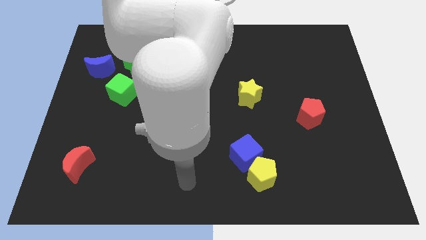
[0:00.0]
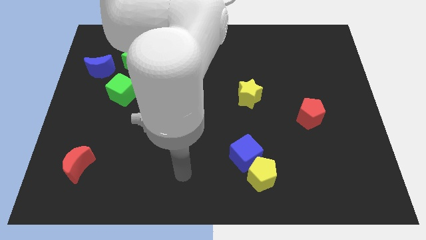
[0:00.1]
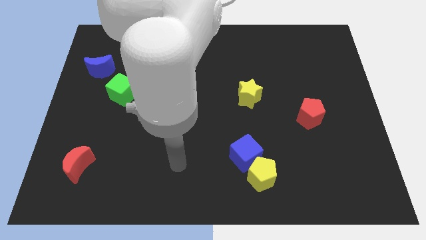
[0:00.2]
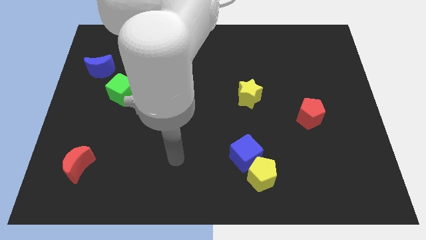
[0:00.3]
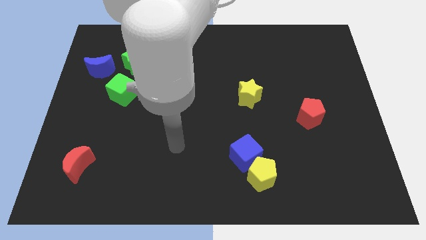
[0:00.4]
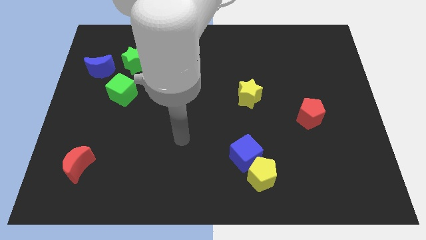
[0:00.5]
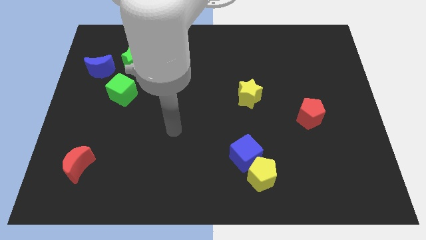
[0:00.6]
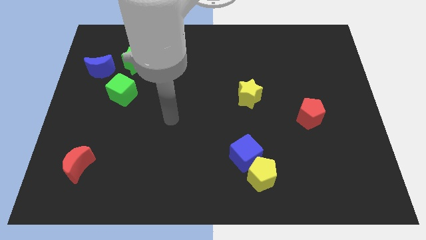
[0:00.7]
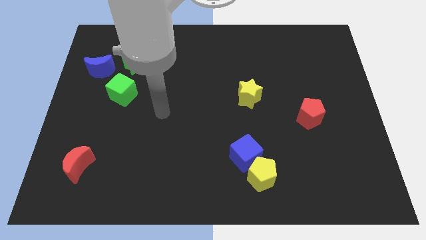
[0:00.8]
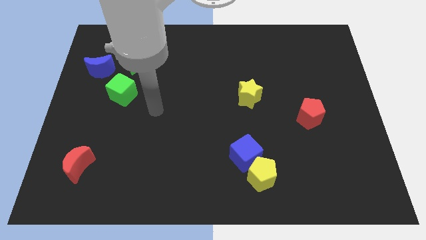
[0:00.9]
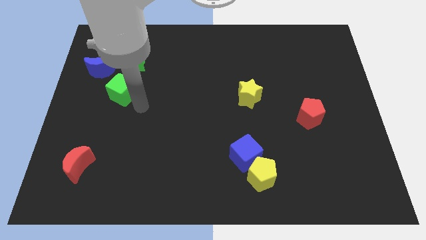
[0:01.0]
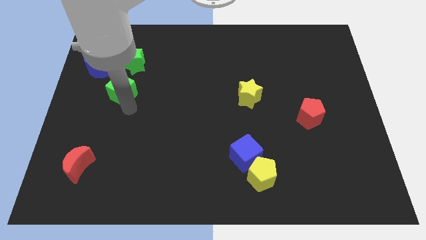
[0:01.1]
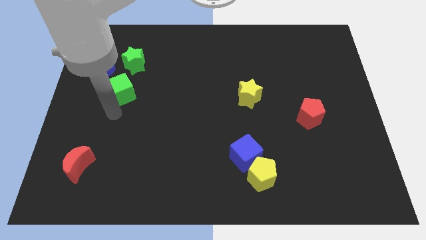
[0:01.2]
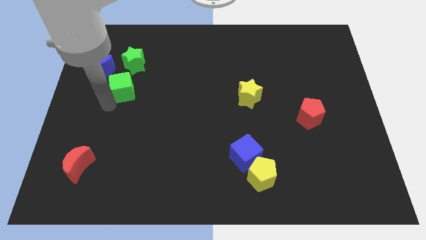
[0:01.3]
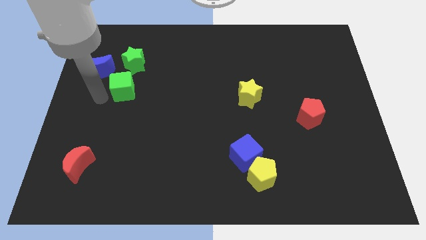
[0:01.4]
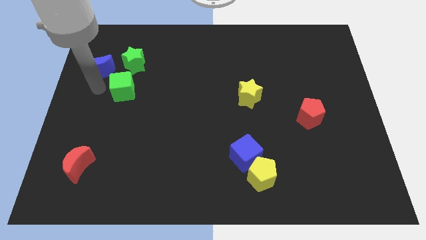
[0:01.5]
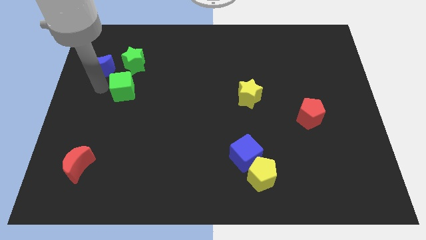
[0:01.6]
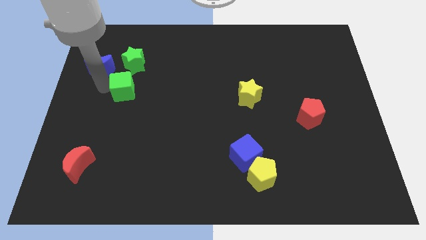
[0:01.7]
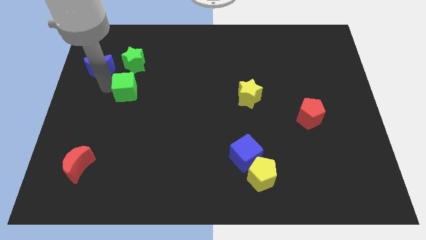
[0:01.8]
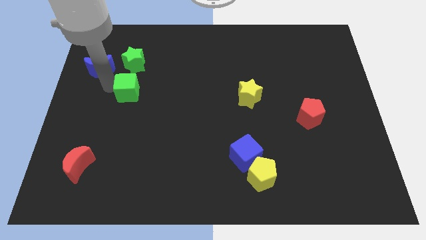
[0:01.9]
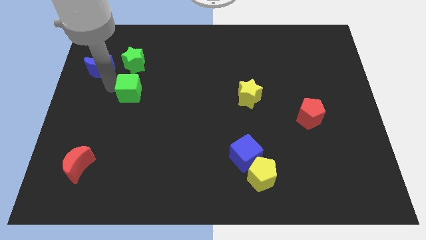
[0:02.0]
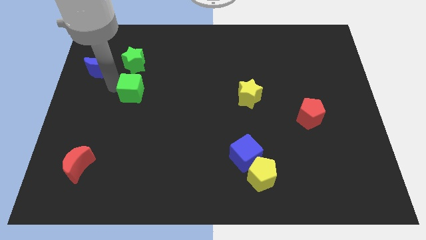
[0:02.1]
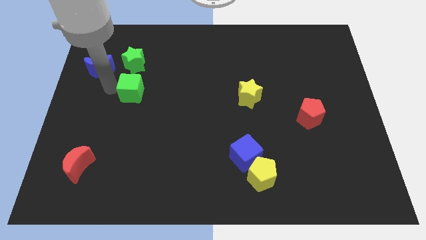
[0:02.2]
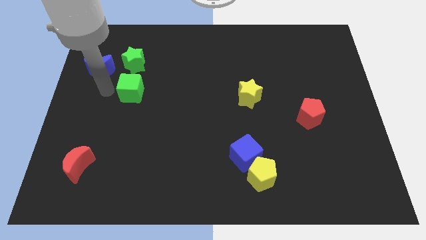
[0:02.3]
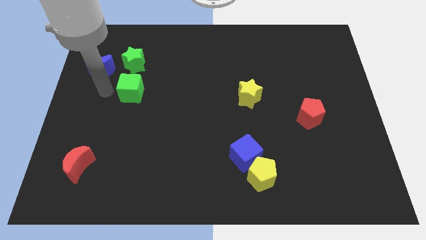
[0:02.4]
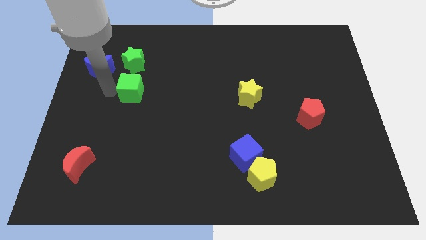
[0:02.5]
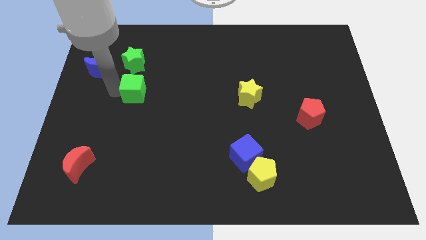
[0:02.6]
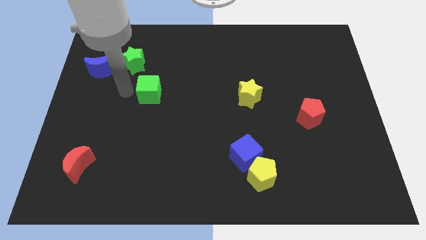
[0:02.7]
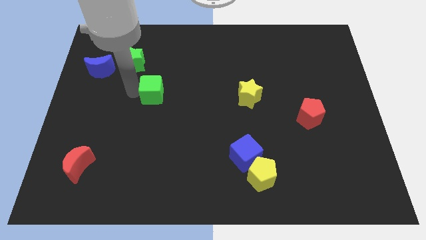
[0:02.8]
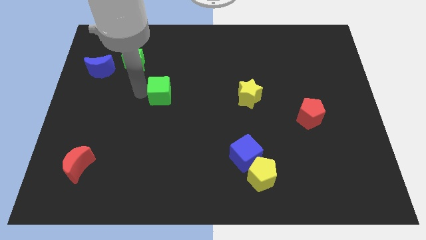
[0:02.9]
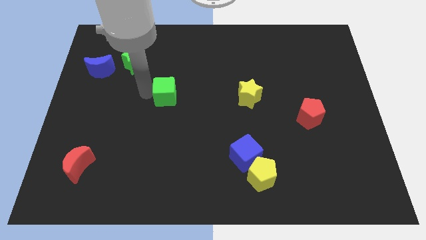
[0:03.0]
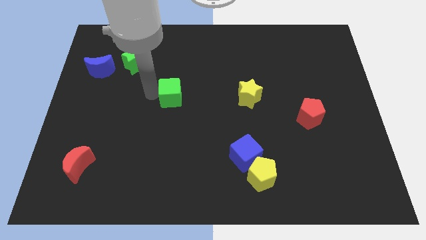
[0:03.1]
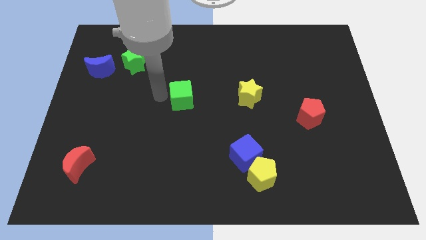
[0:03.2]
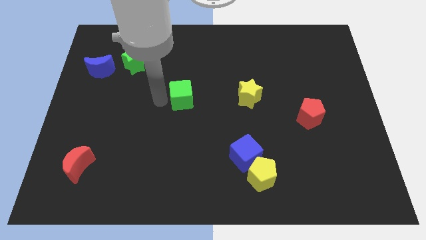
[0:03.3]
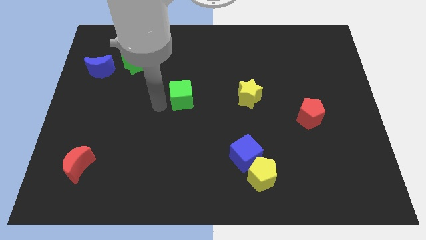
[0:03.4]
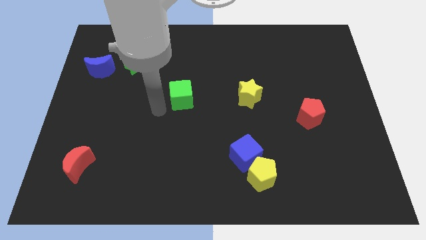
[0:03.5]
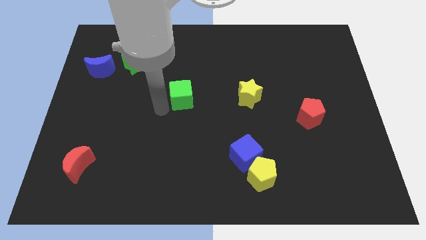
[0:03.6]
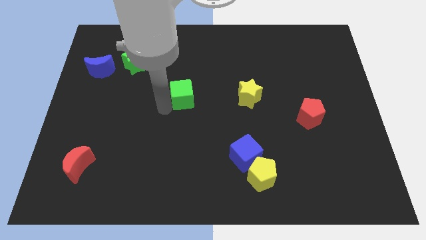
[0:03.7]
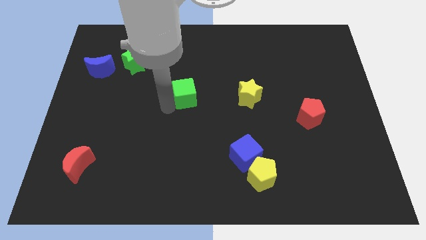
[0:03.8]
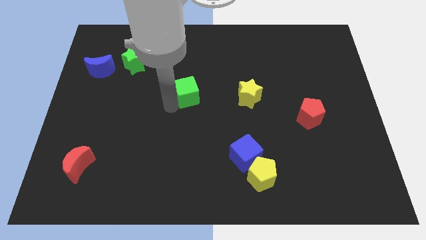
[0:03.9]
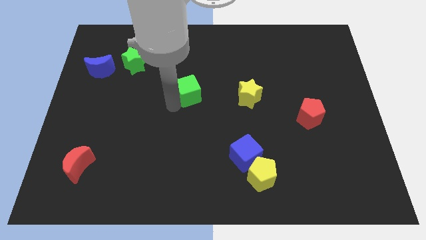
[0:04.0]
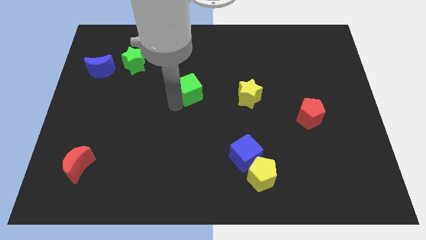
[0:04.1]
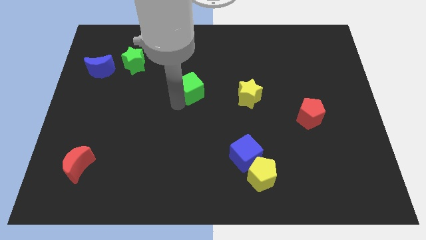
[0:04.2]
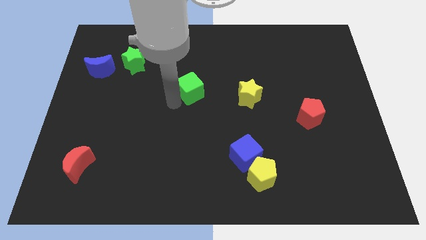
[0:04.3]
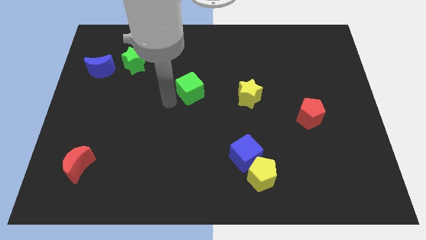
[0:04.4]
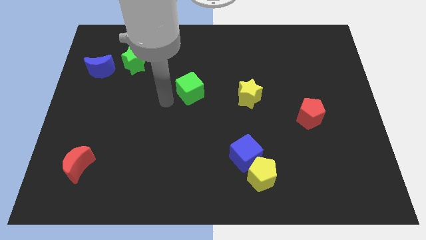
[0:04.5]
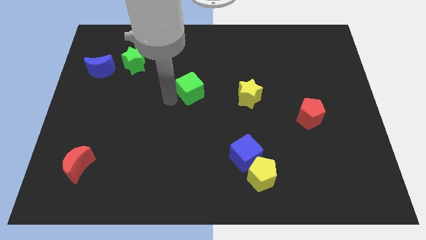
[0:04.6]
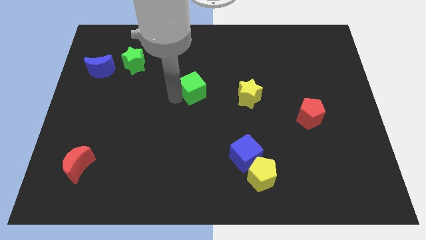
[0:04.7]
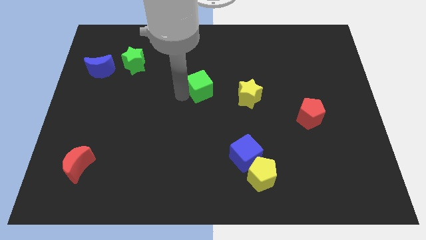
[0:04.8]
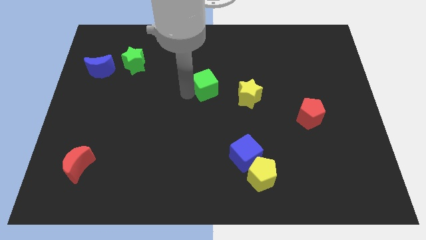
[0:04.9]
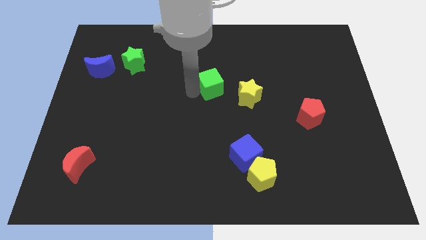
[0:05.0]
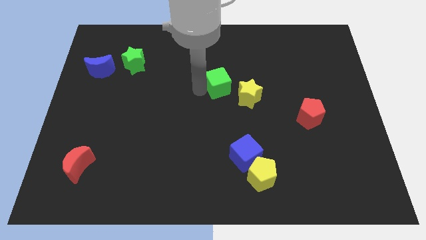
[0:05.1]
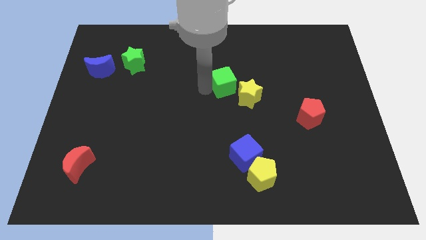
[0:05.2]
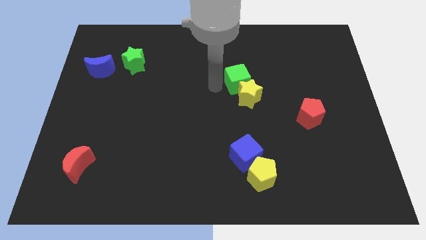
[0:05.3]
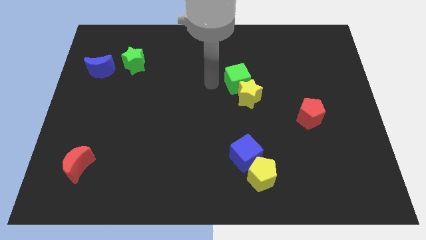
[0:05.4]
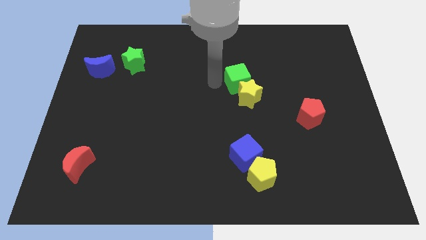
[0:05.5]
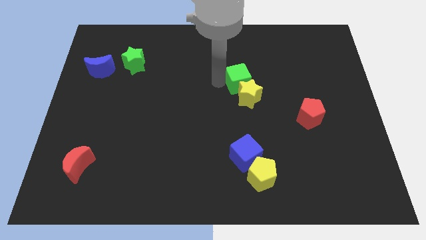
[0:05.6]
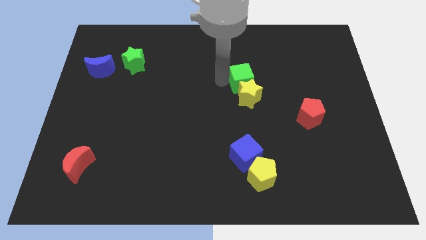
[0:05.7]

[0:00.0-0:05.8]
push the green cube to the top right of the yellow star
